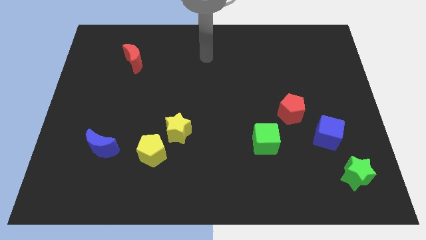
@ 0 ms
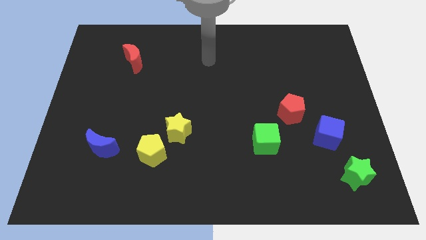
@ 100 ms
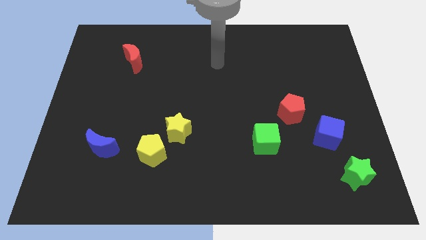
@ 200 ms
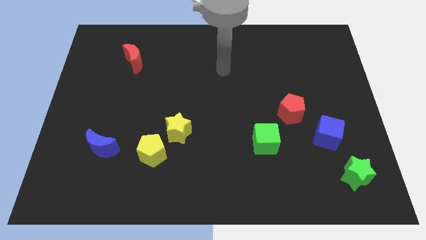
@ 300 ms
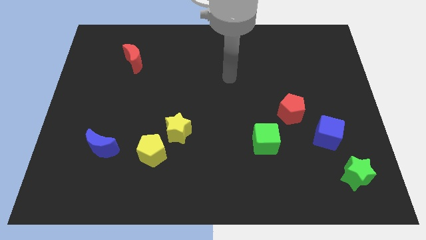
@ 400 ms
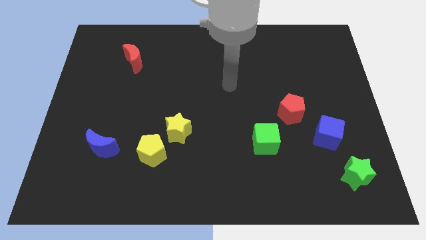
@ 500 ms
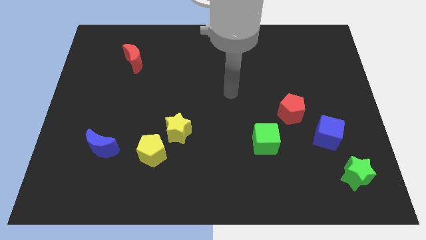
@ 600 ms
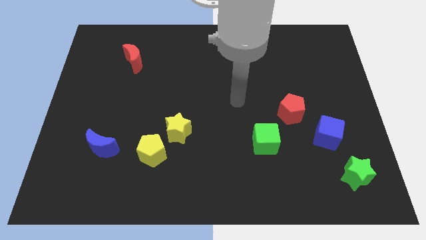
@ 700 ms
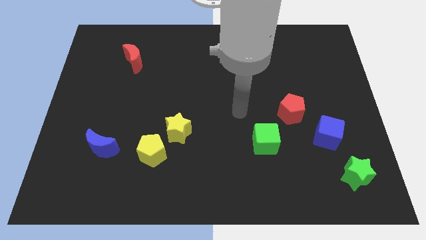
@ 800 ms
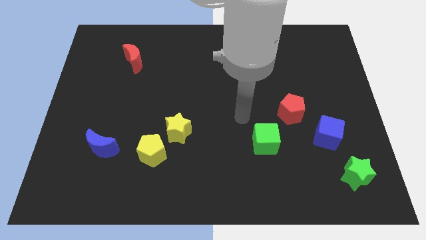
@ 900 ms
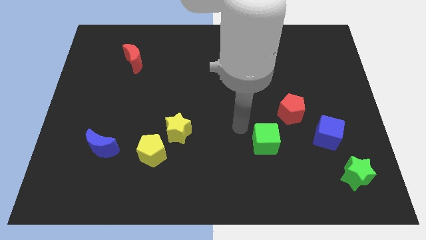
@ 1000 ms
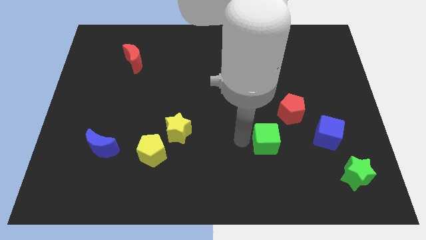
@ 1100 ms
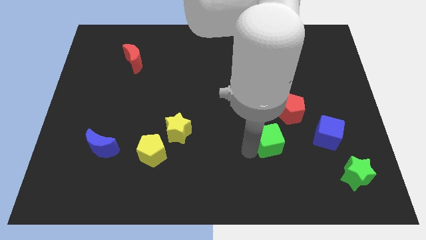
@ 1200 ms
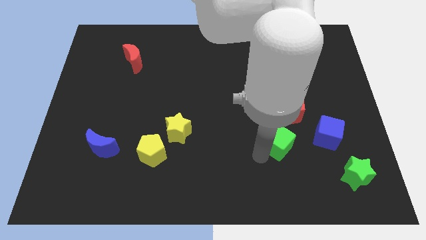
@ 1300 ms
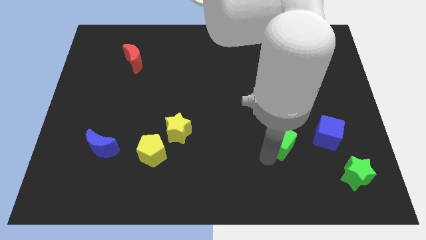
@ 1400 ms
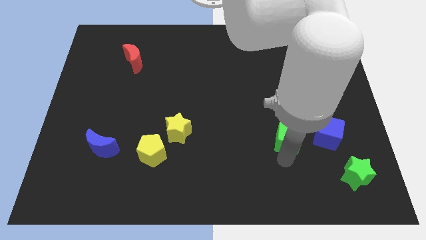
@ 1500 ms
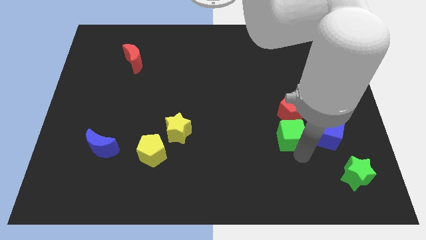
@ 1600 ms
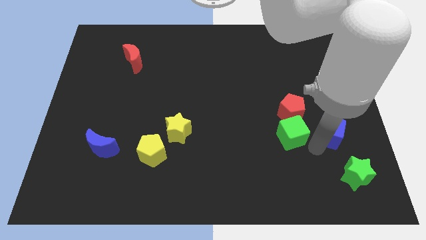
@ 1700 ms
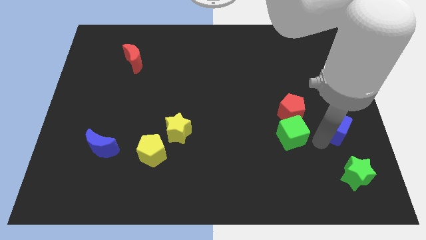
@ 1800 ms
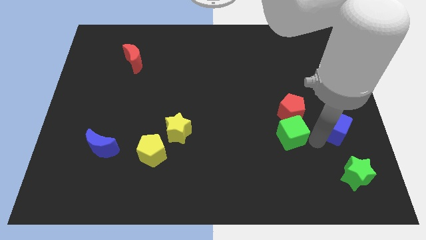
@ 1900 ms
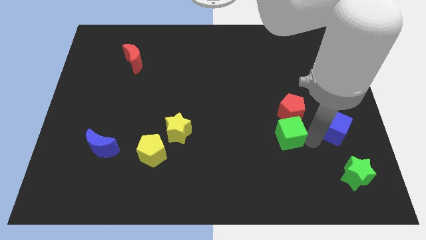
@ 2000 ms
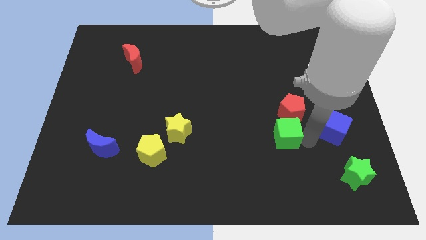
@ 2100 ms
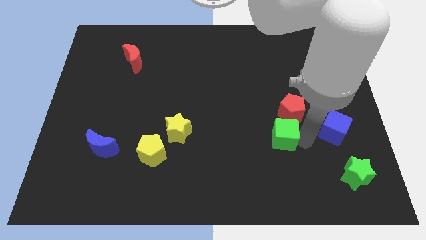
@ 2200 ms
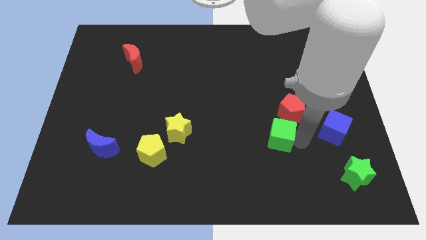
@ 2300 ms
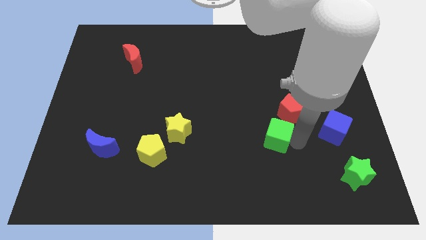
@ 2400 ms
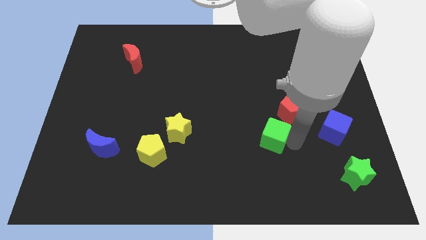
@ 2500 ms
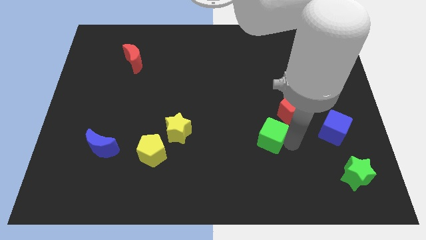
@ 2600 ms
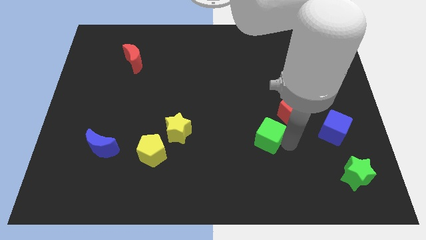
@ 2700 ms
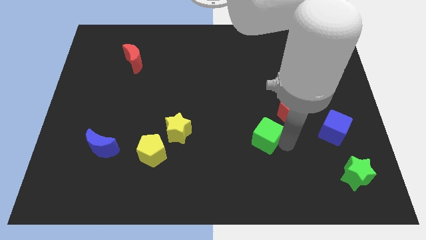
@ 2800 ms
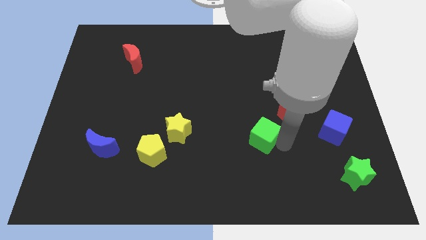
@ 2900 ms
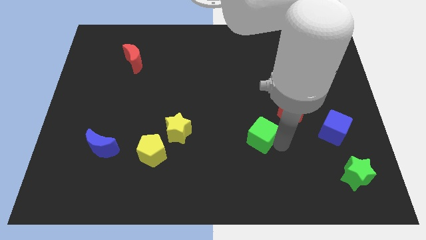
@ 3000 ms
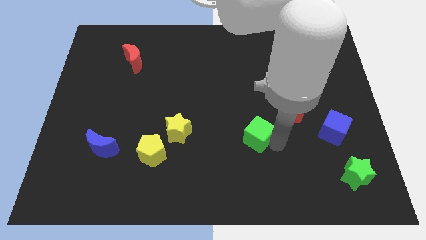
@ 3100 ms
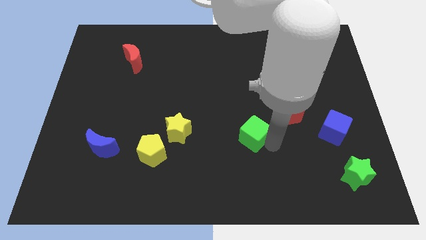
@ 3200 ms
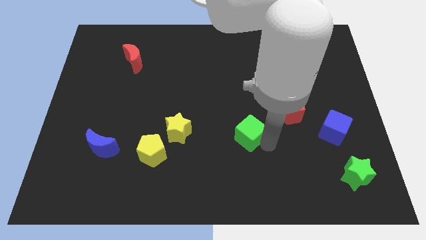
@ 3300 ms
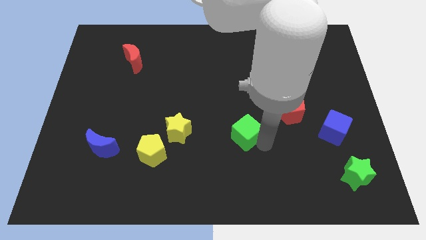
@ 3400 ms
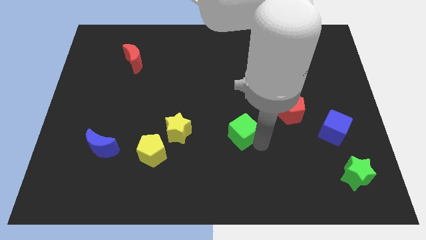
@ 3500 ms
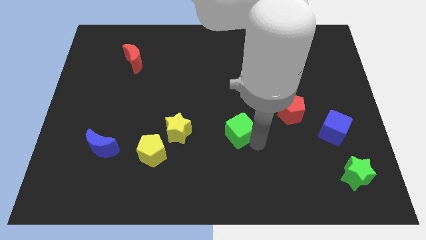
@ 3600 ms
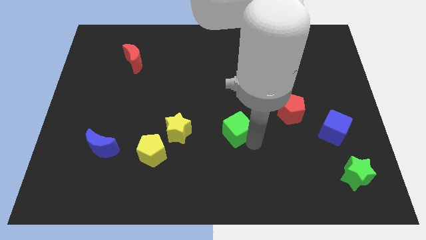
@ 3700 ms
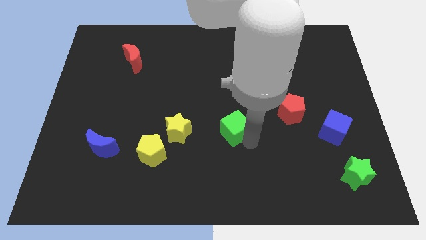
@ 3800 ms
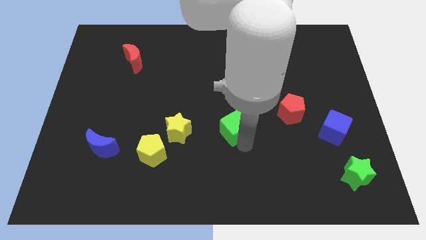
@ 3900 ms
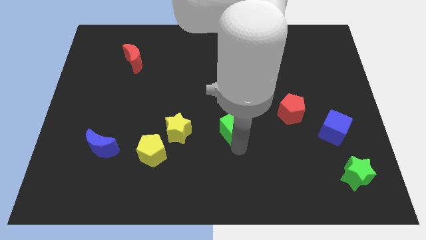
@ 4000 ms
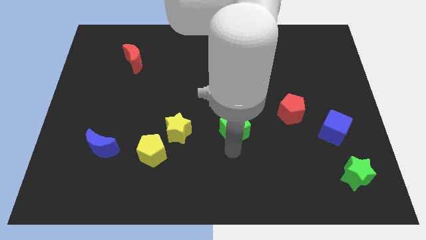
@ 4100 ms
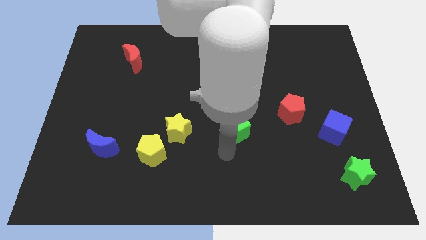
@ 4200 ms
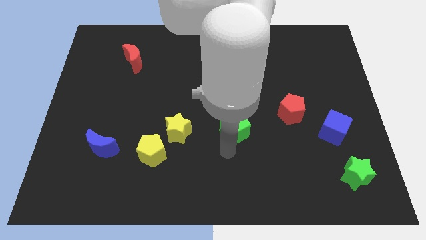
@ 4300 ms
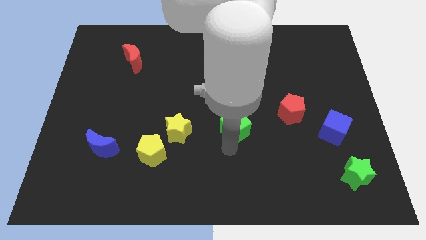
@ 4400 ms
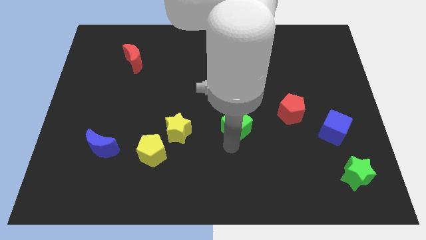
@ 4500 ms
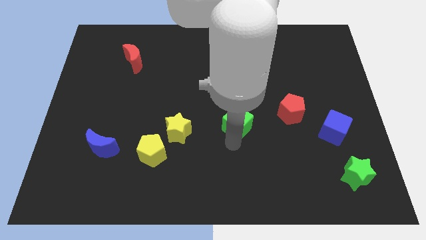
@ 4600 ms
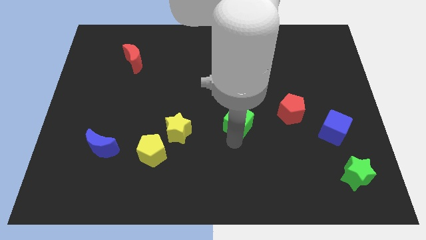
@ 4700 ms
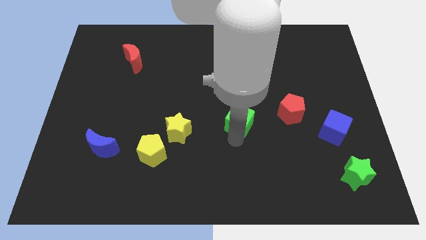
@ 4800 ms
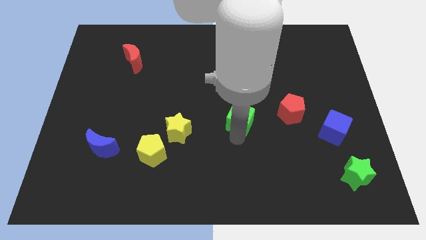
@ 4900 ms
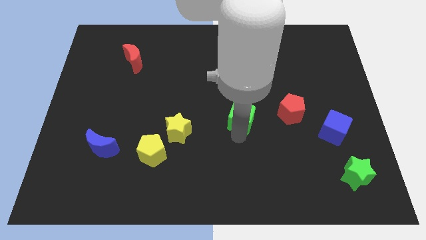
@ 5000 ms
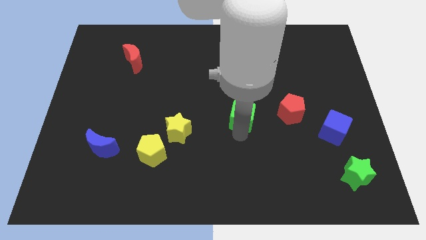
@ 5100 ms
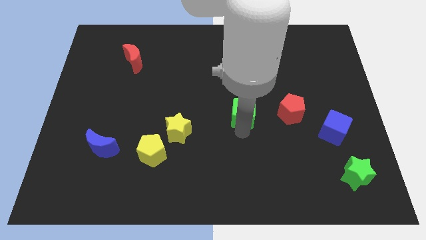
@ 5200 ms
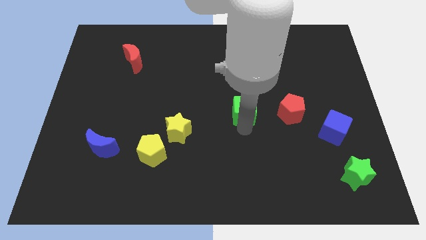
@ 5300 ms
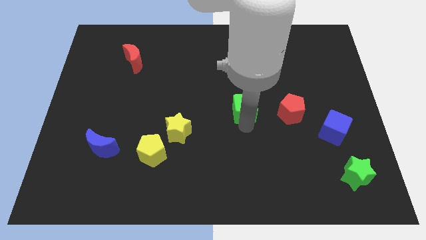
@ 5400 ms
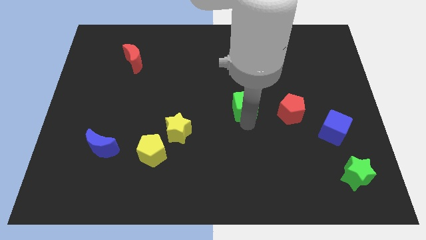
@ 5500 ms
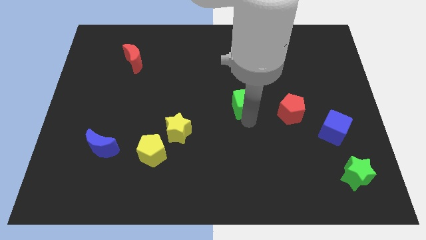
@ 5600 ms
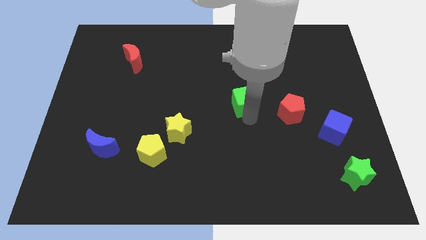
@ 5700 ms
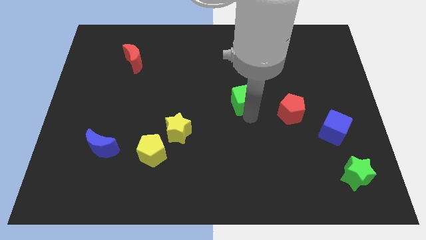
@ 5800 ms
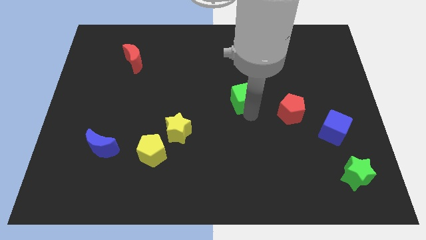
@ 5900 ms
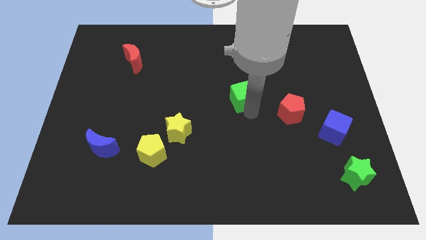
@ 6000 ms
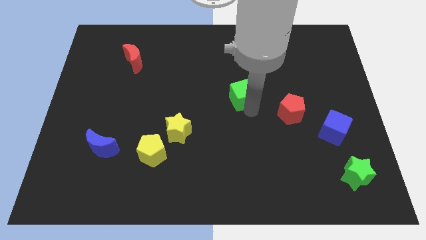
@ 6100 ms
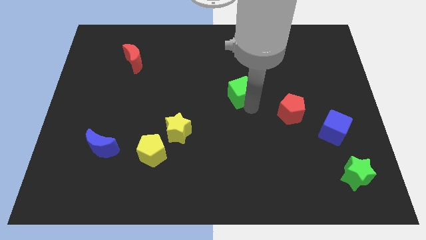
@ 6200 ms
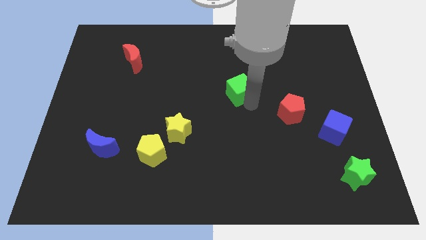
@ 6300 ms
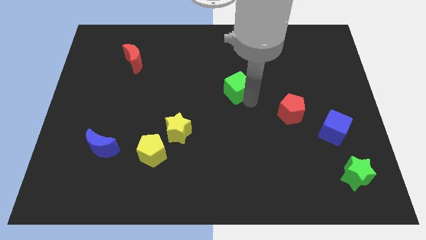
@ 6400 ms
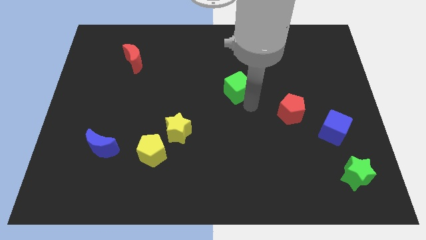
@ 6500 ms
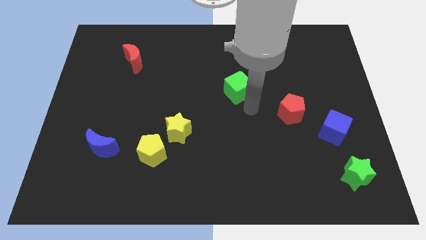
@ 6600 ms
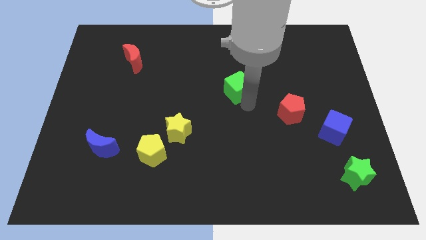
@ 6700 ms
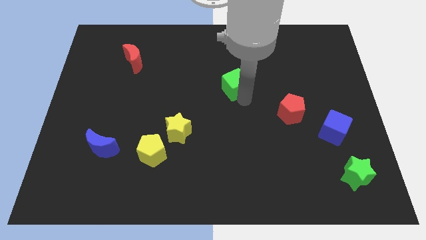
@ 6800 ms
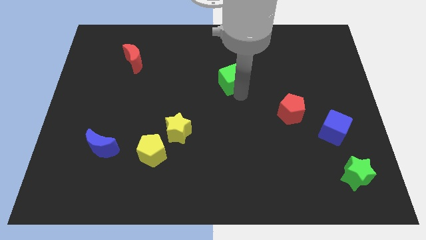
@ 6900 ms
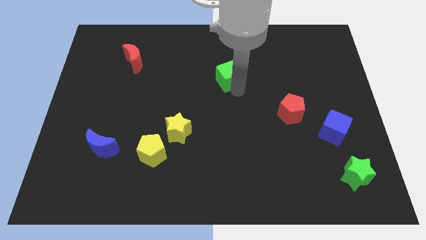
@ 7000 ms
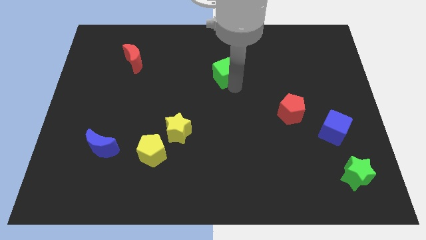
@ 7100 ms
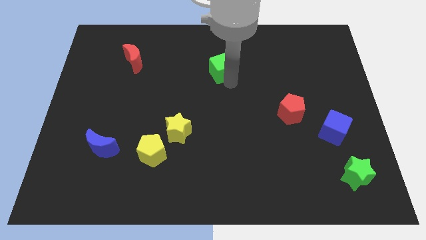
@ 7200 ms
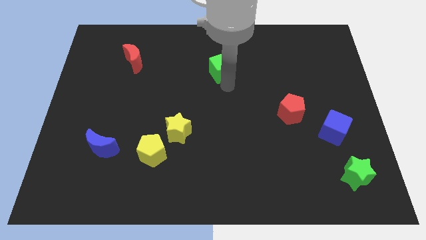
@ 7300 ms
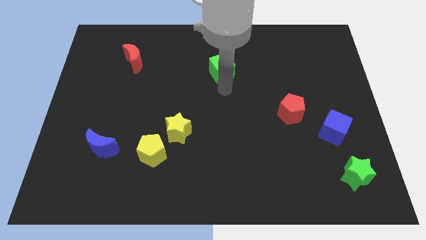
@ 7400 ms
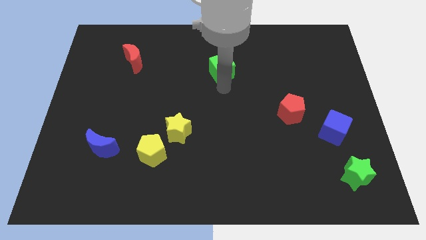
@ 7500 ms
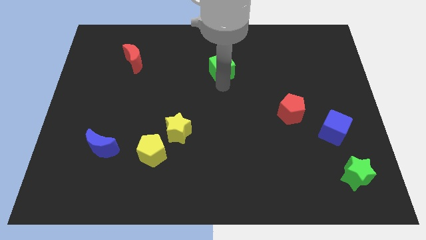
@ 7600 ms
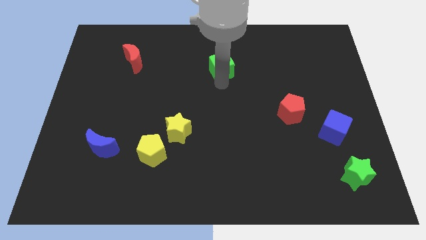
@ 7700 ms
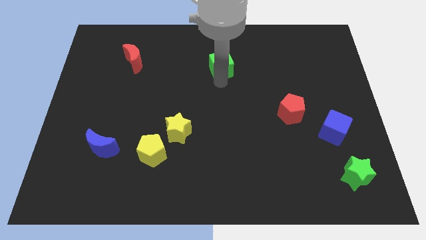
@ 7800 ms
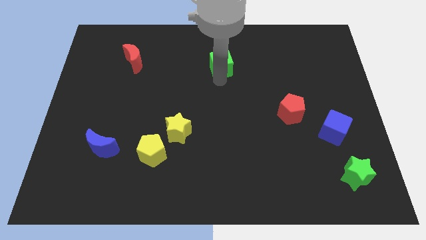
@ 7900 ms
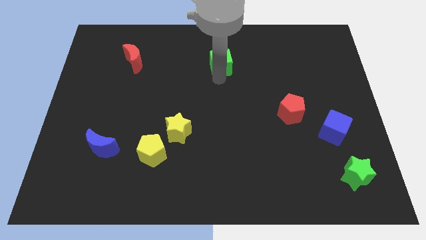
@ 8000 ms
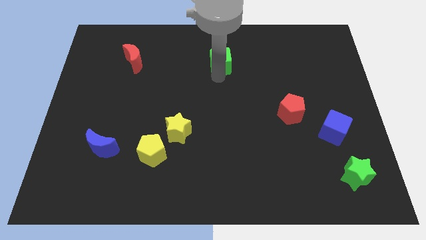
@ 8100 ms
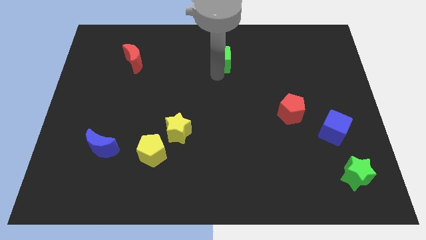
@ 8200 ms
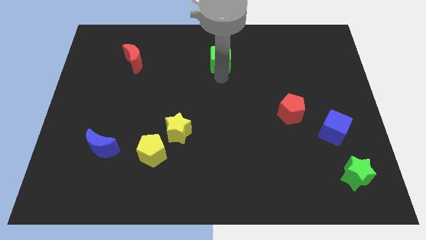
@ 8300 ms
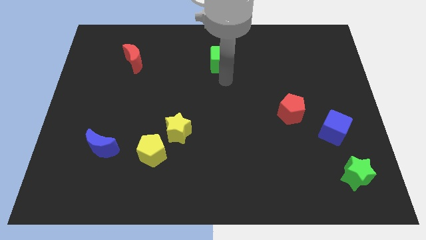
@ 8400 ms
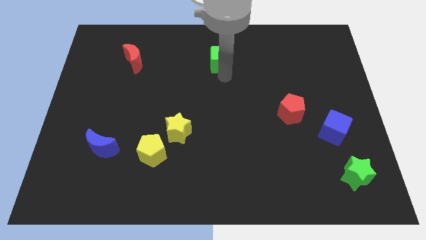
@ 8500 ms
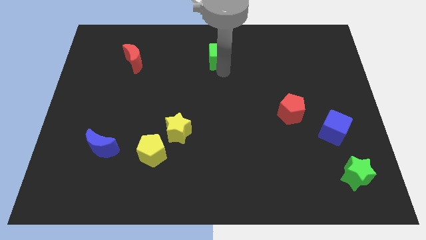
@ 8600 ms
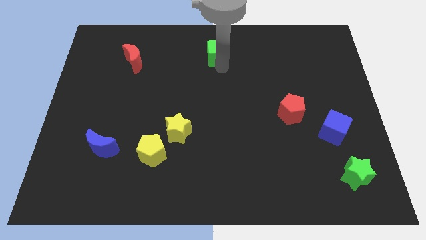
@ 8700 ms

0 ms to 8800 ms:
slide the green cube to the top side
